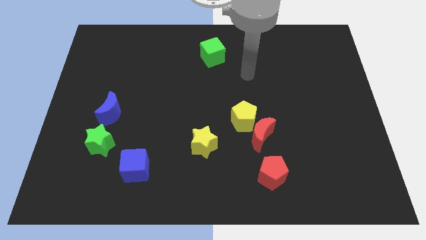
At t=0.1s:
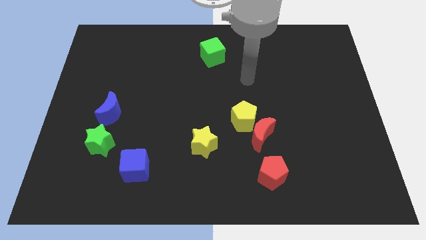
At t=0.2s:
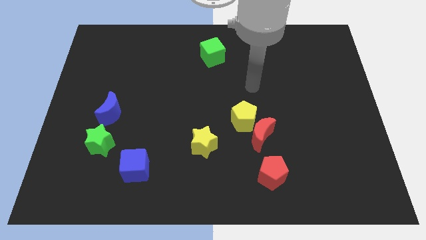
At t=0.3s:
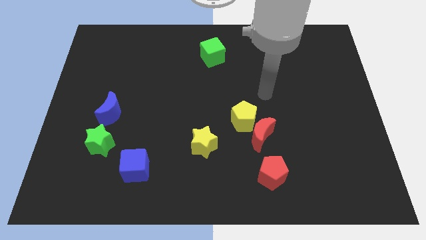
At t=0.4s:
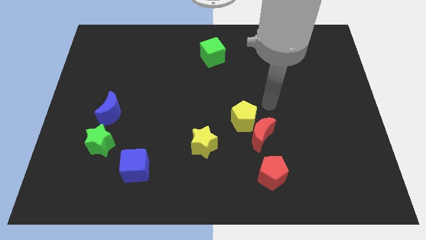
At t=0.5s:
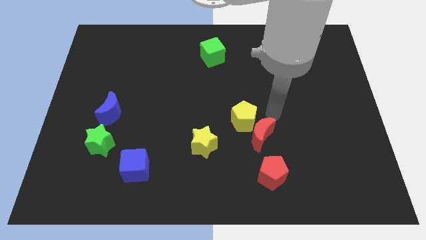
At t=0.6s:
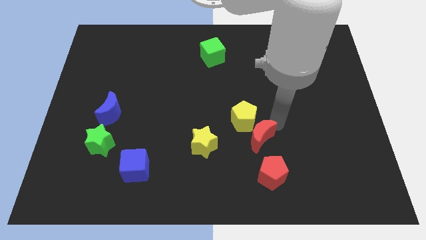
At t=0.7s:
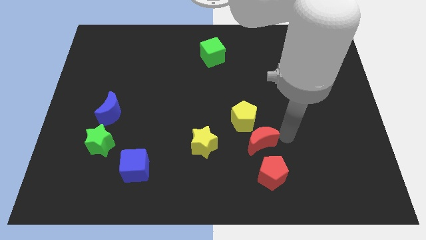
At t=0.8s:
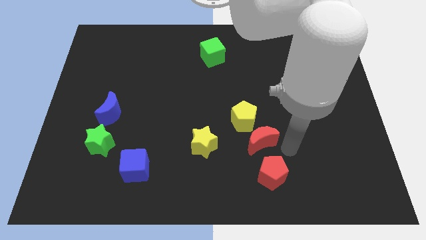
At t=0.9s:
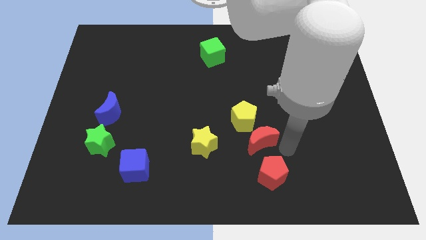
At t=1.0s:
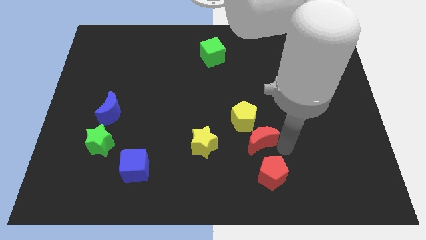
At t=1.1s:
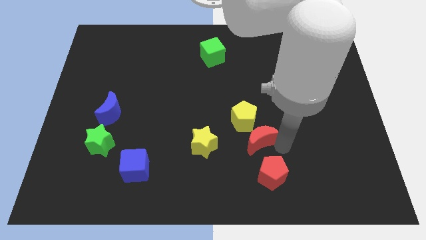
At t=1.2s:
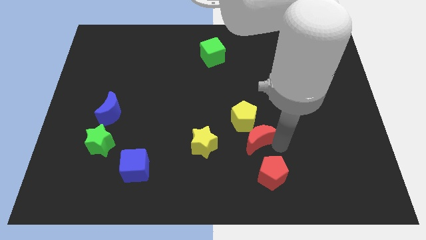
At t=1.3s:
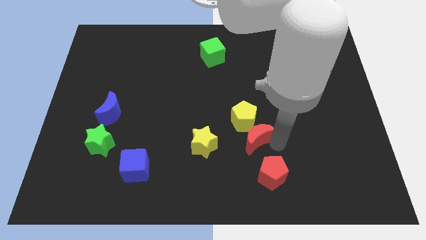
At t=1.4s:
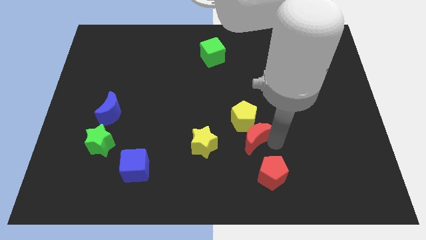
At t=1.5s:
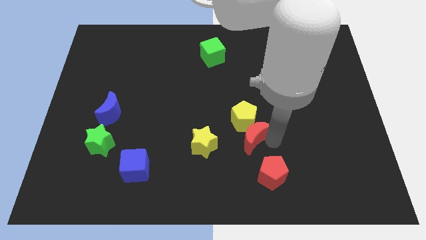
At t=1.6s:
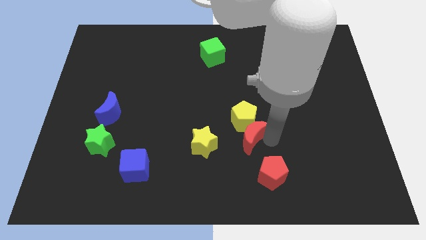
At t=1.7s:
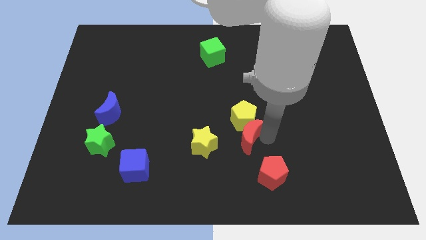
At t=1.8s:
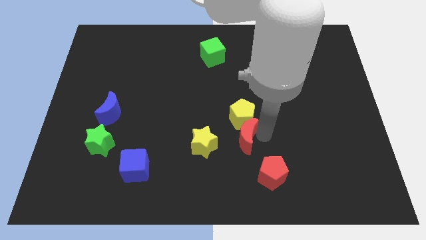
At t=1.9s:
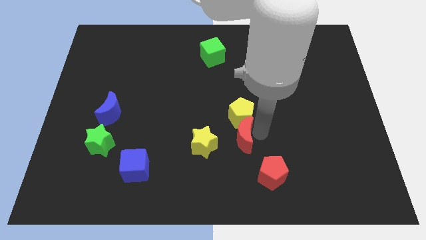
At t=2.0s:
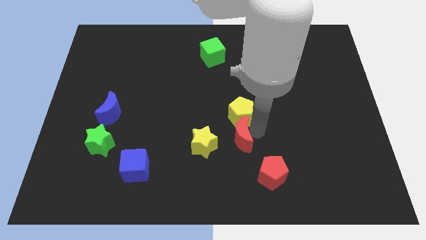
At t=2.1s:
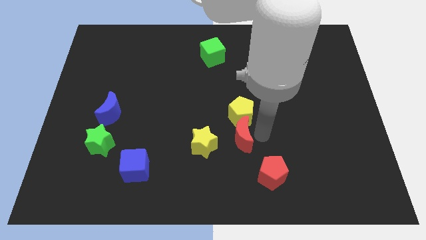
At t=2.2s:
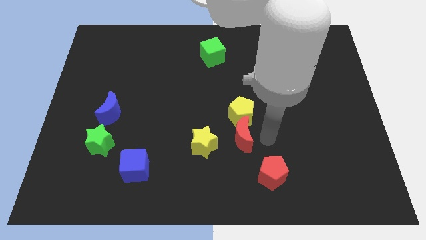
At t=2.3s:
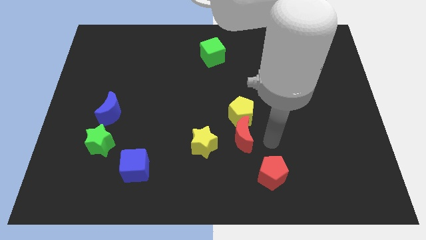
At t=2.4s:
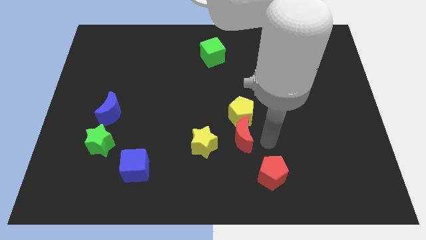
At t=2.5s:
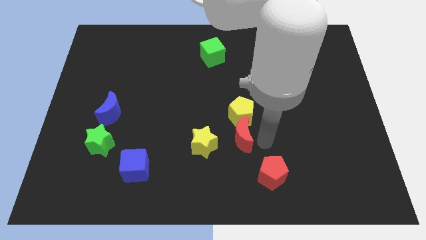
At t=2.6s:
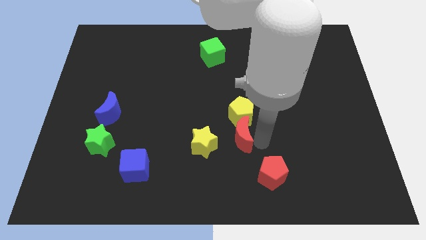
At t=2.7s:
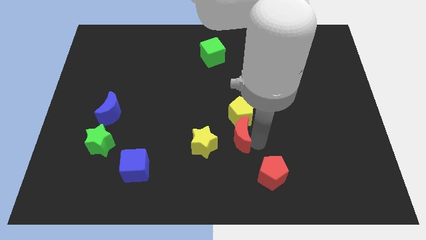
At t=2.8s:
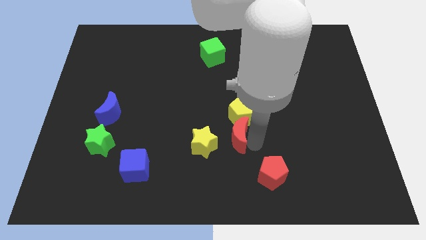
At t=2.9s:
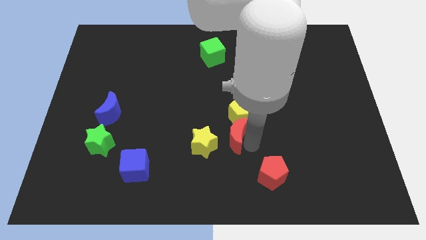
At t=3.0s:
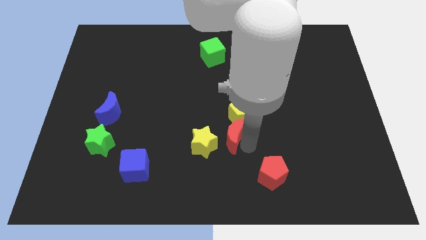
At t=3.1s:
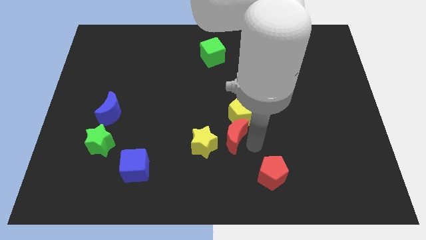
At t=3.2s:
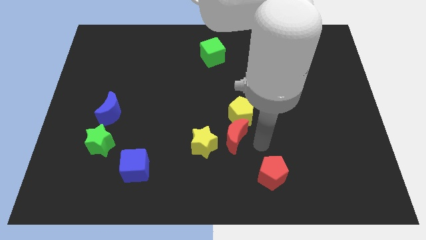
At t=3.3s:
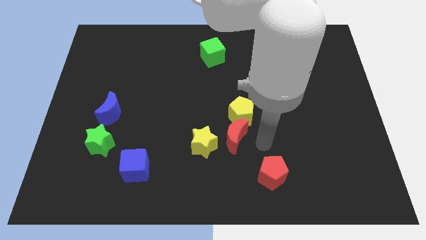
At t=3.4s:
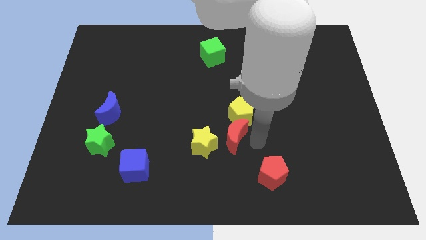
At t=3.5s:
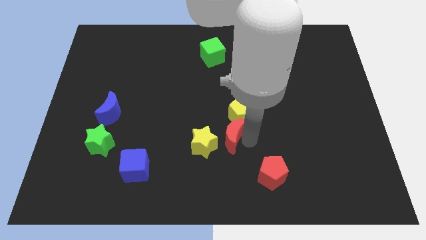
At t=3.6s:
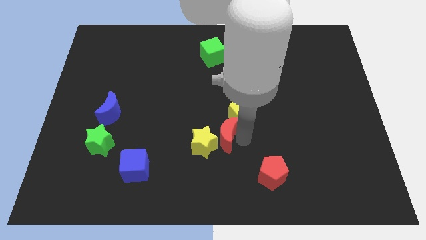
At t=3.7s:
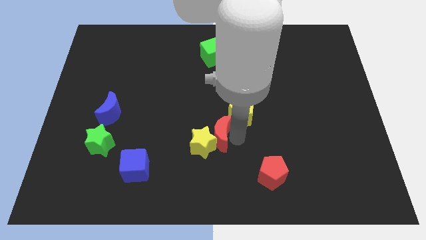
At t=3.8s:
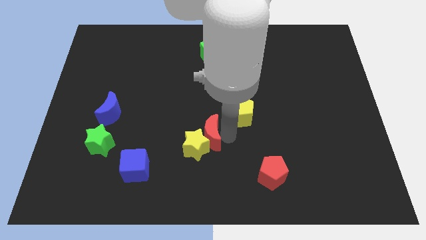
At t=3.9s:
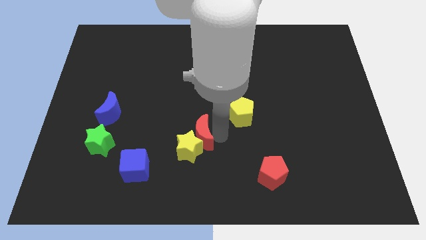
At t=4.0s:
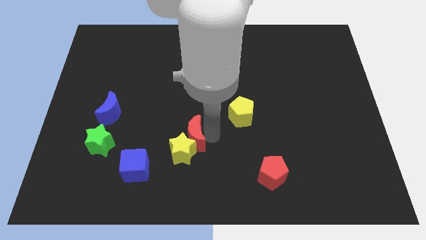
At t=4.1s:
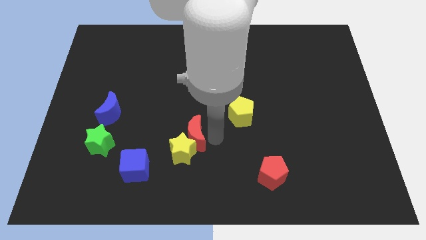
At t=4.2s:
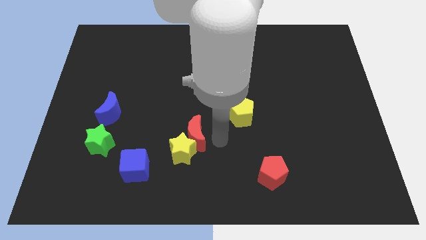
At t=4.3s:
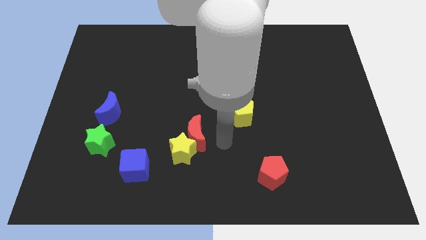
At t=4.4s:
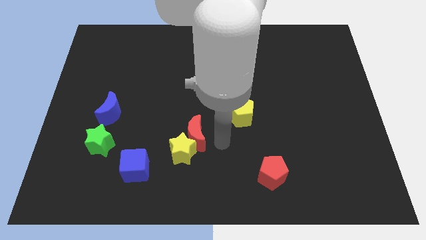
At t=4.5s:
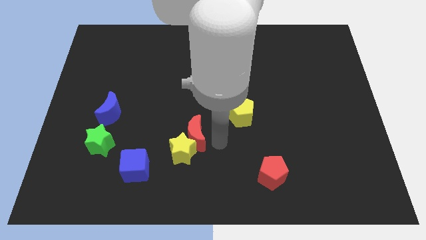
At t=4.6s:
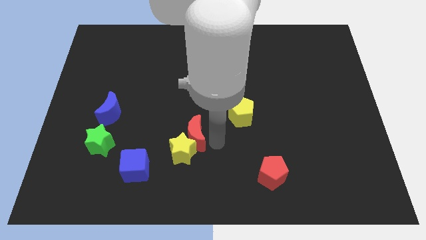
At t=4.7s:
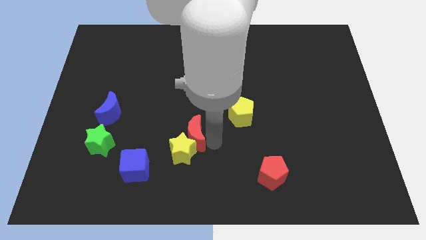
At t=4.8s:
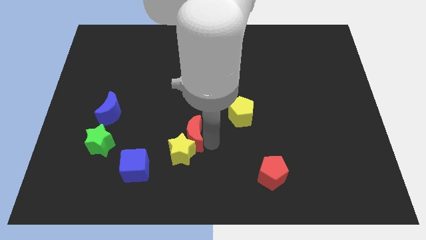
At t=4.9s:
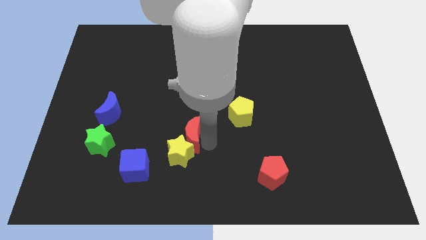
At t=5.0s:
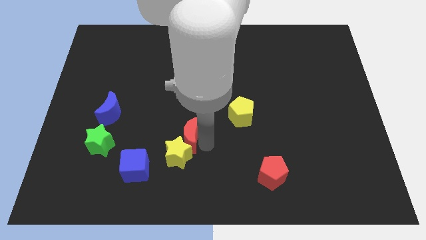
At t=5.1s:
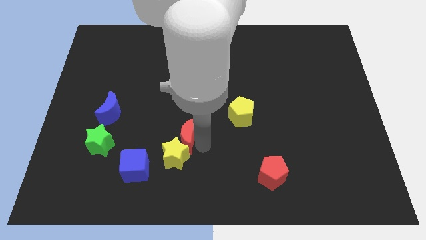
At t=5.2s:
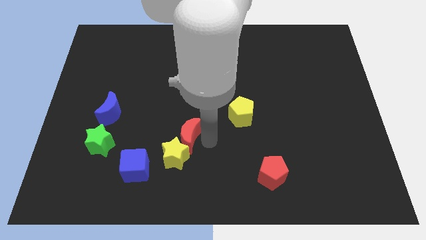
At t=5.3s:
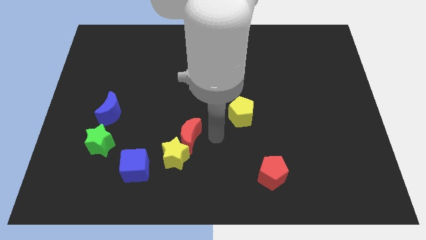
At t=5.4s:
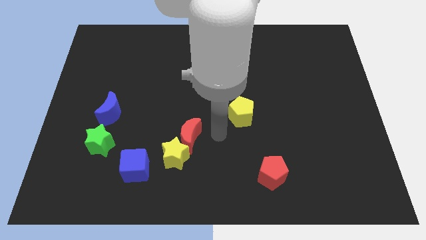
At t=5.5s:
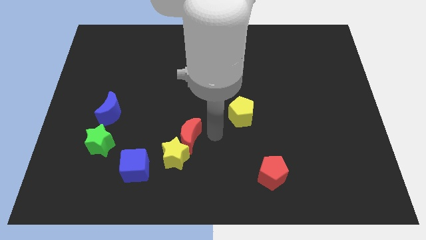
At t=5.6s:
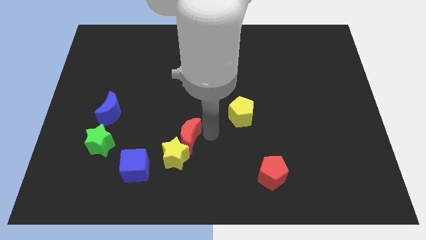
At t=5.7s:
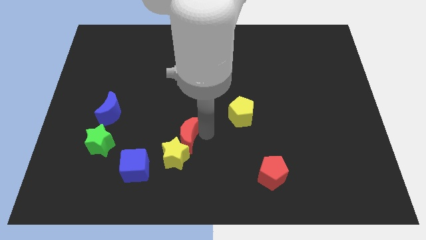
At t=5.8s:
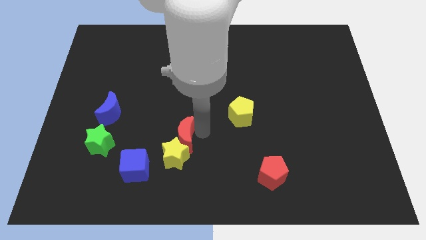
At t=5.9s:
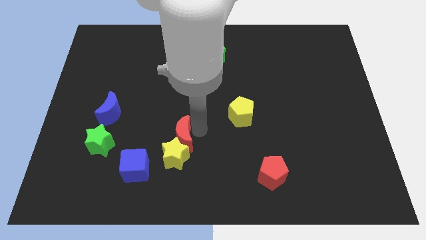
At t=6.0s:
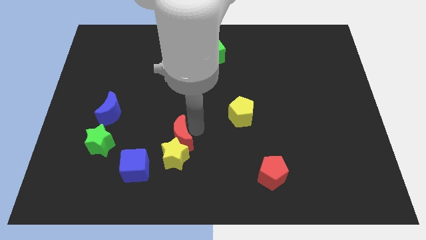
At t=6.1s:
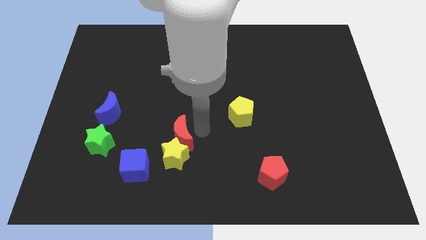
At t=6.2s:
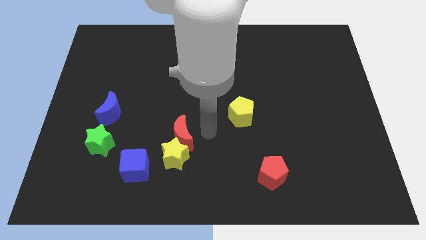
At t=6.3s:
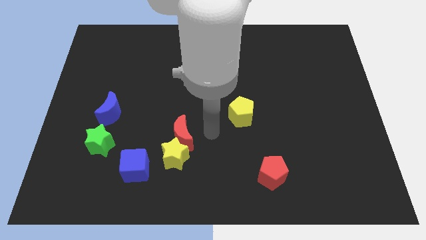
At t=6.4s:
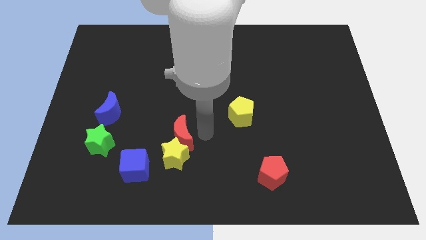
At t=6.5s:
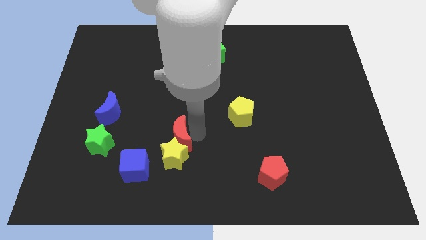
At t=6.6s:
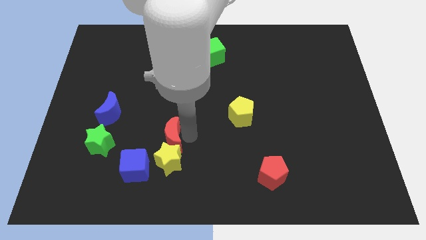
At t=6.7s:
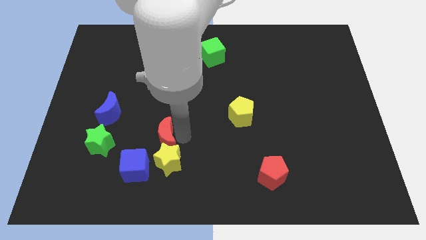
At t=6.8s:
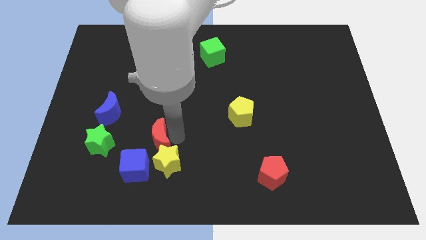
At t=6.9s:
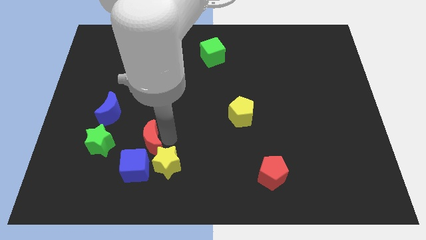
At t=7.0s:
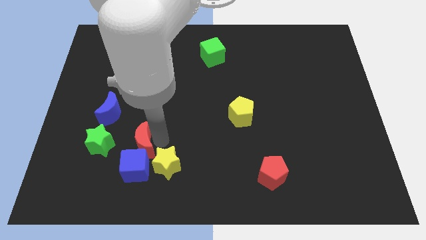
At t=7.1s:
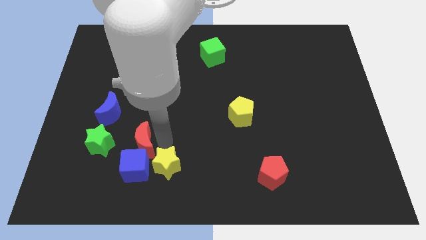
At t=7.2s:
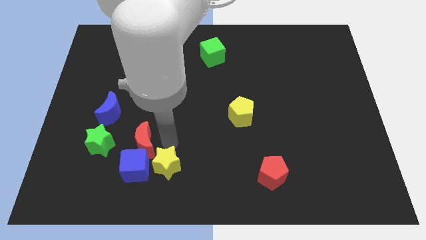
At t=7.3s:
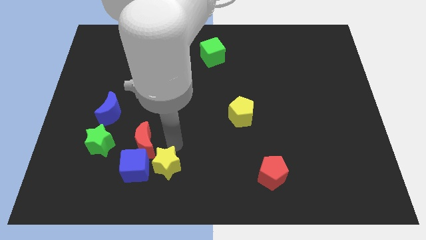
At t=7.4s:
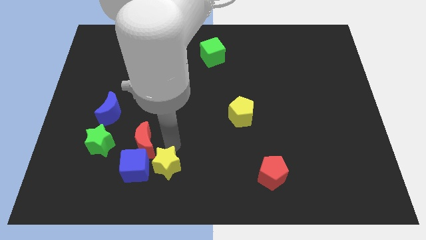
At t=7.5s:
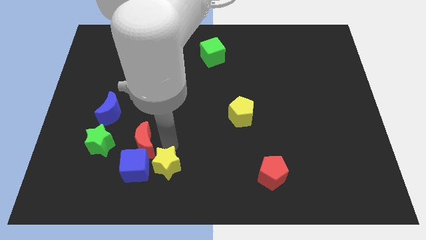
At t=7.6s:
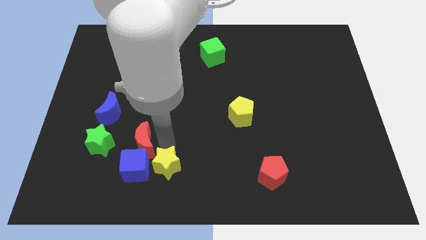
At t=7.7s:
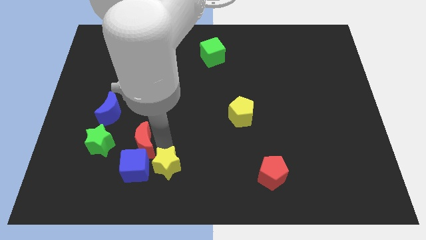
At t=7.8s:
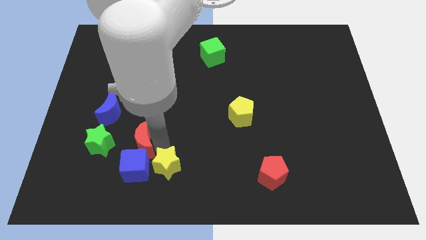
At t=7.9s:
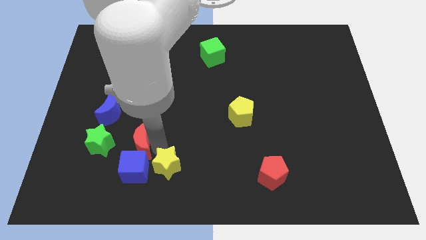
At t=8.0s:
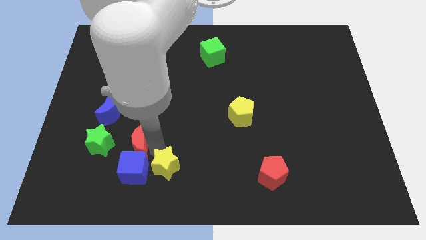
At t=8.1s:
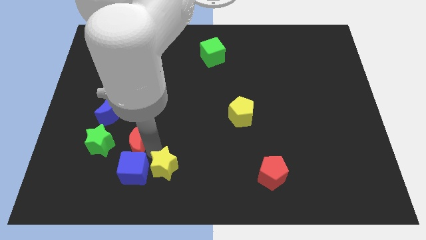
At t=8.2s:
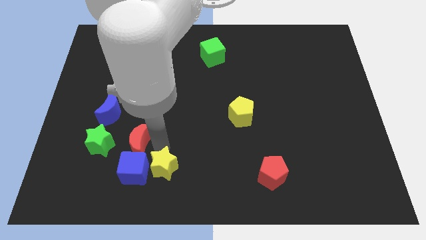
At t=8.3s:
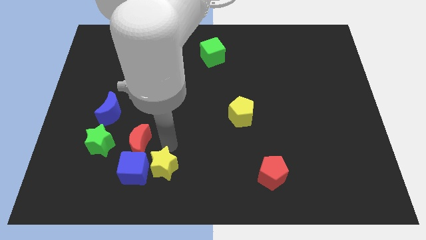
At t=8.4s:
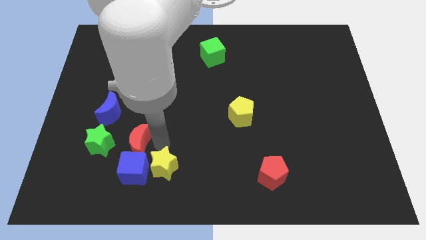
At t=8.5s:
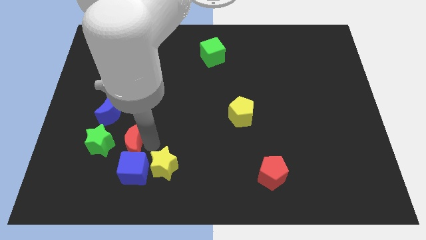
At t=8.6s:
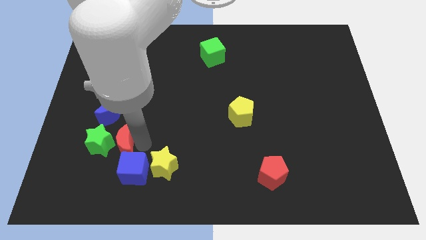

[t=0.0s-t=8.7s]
push the red moon towards the green star
